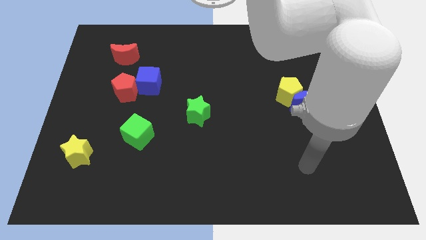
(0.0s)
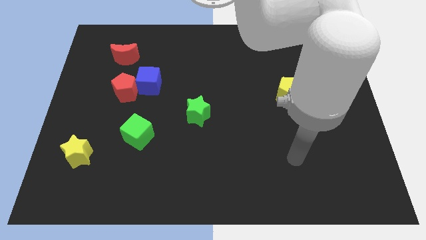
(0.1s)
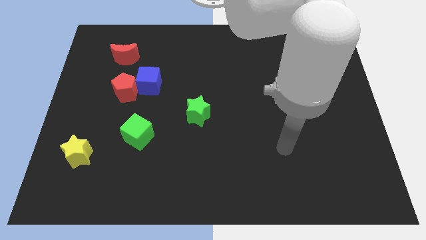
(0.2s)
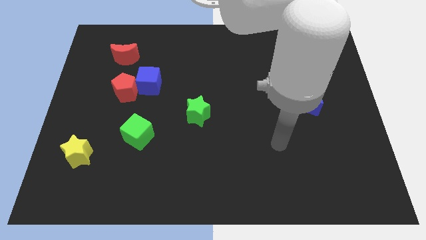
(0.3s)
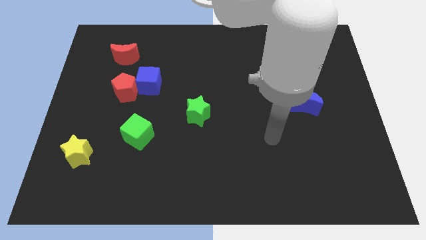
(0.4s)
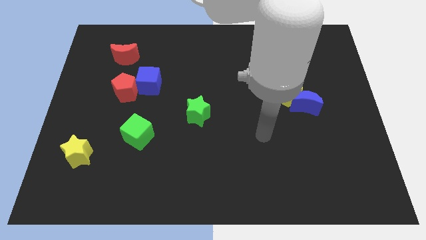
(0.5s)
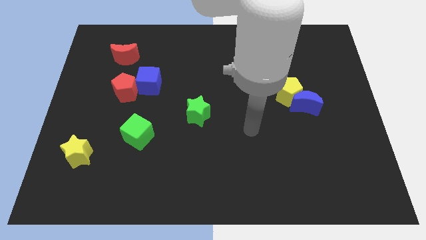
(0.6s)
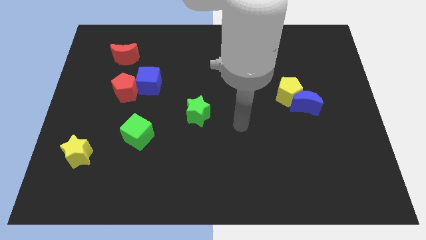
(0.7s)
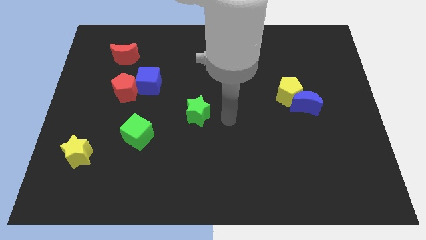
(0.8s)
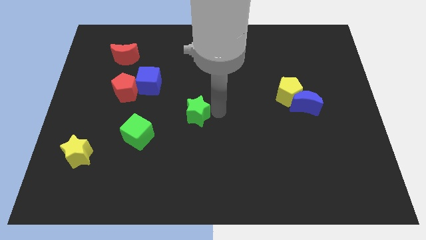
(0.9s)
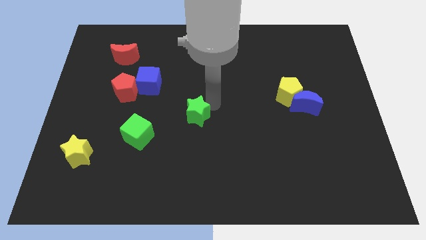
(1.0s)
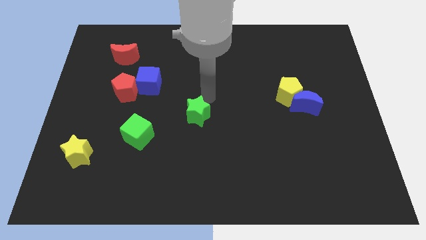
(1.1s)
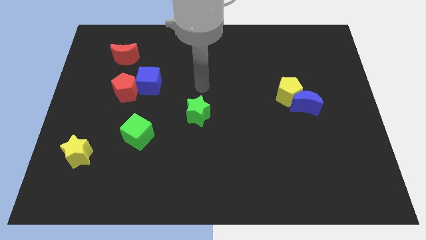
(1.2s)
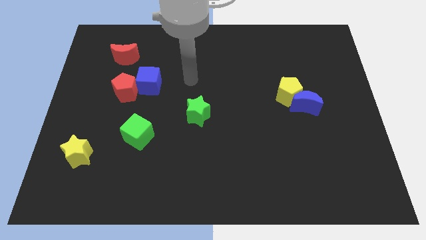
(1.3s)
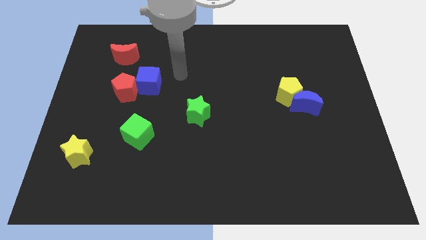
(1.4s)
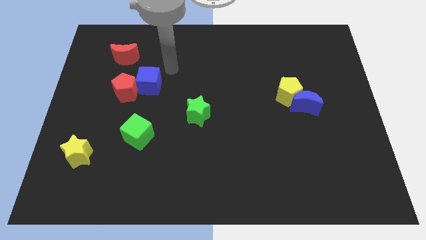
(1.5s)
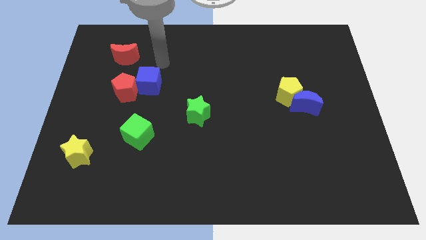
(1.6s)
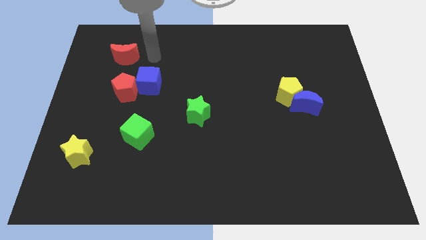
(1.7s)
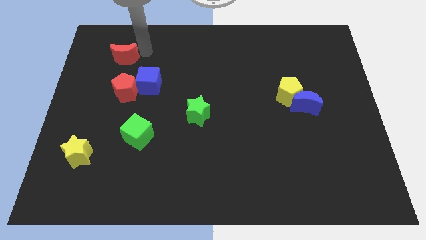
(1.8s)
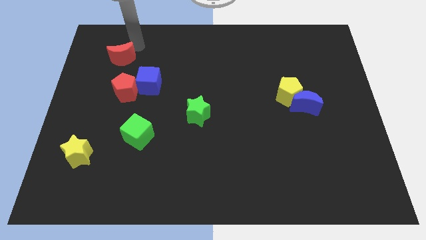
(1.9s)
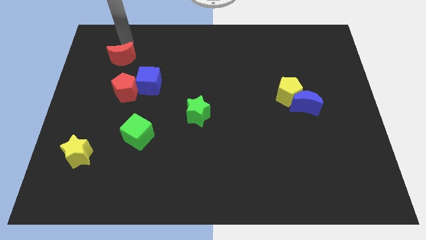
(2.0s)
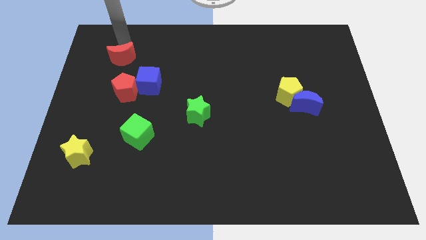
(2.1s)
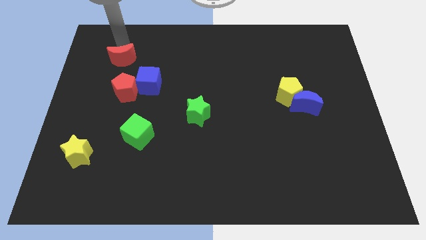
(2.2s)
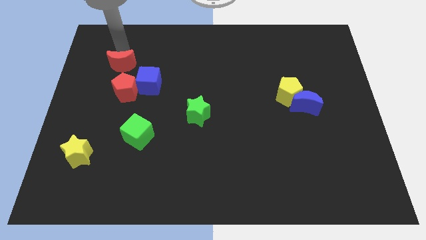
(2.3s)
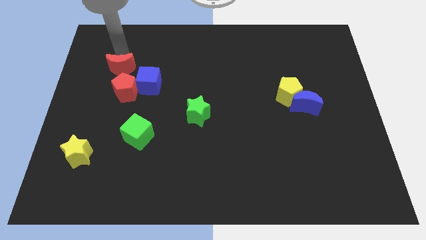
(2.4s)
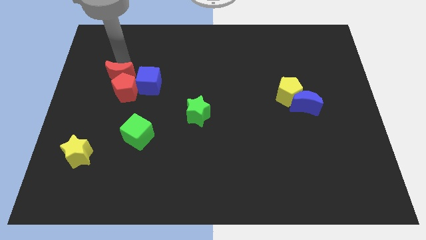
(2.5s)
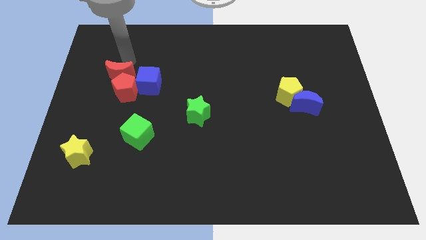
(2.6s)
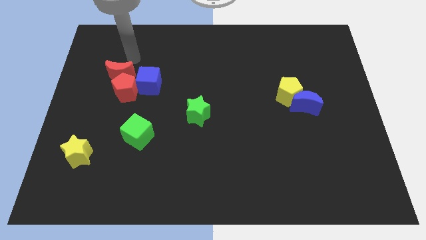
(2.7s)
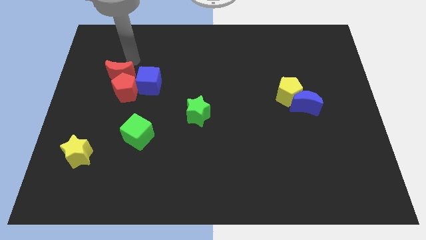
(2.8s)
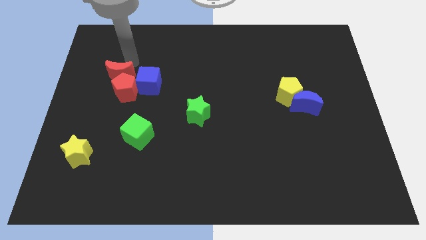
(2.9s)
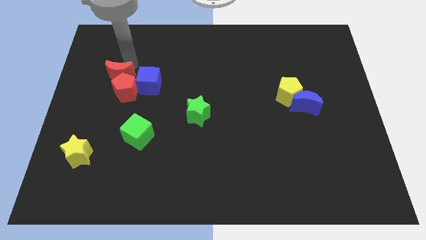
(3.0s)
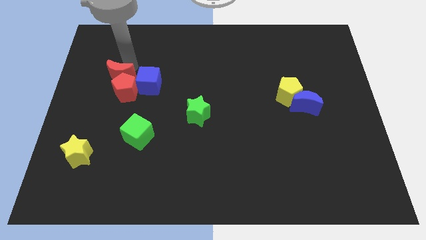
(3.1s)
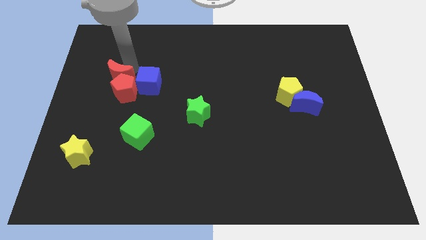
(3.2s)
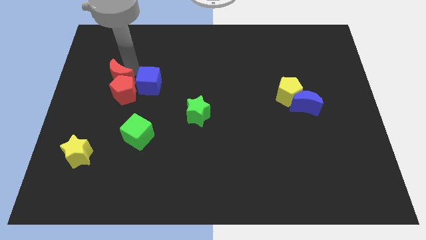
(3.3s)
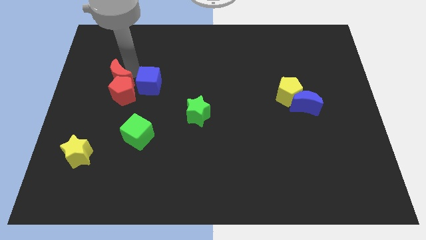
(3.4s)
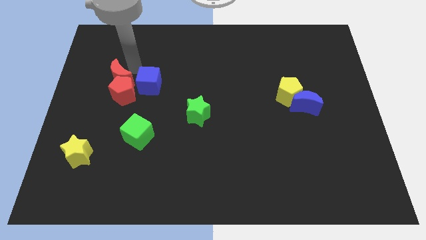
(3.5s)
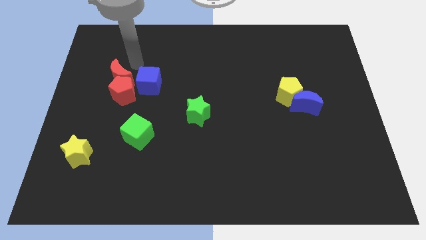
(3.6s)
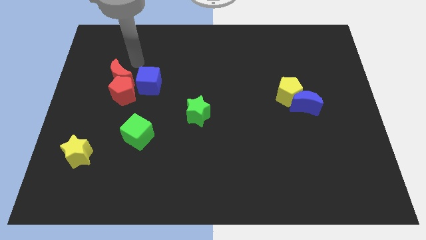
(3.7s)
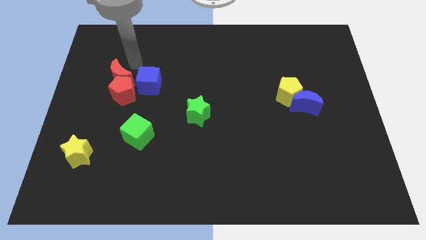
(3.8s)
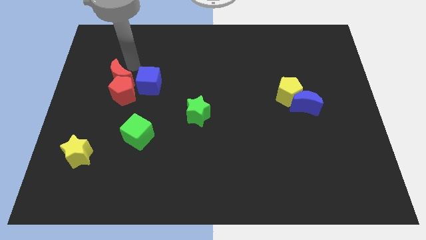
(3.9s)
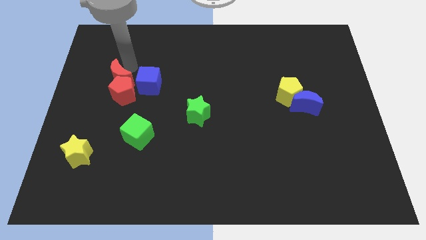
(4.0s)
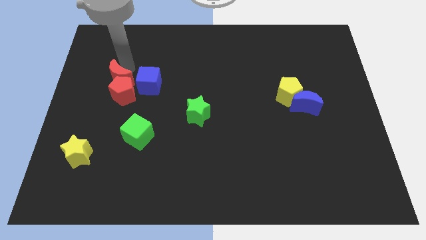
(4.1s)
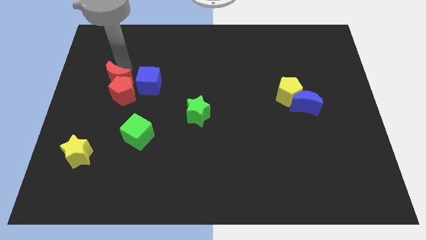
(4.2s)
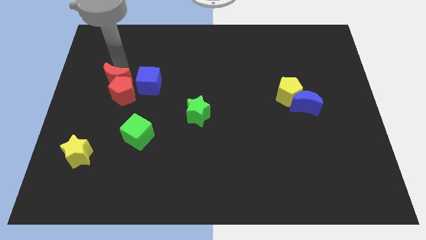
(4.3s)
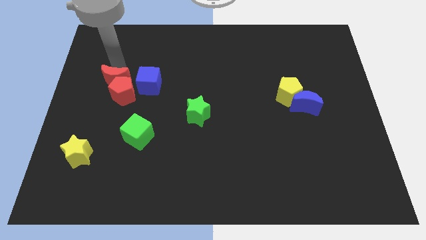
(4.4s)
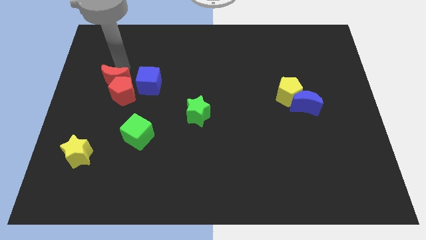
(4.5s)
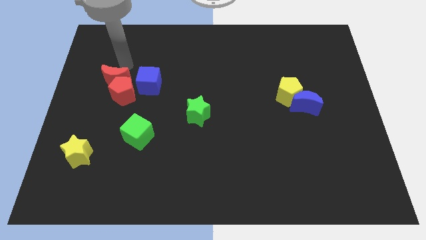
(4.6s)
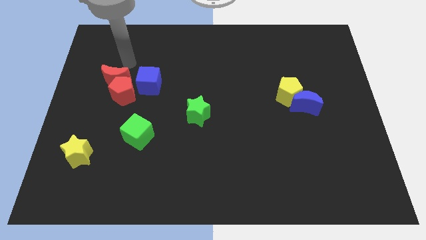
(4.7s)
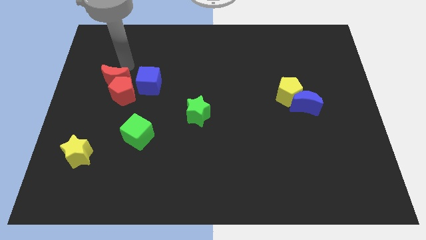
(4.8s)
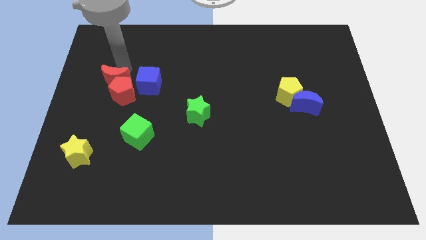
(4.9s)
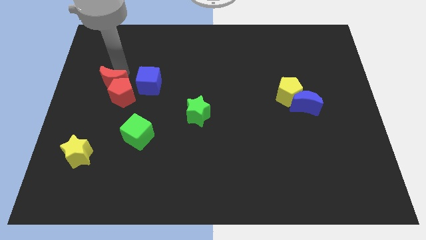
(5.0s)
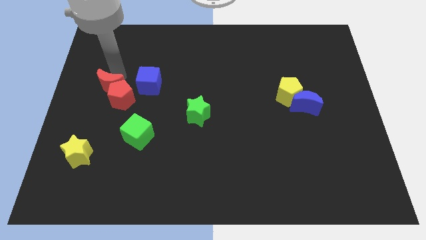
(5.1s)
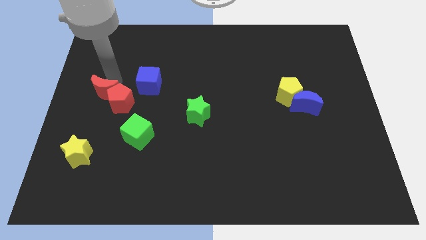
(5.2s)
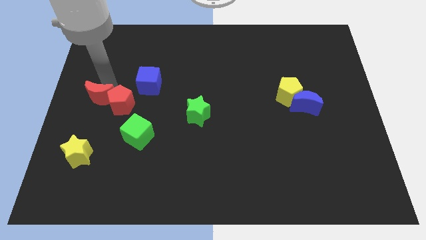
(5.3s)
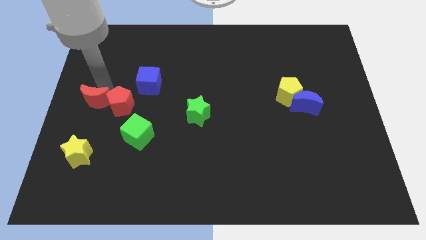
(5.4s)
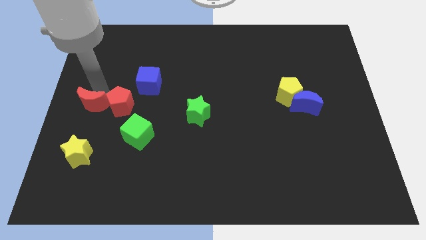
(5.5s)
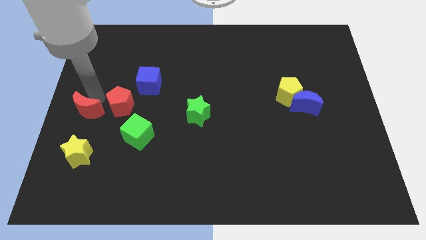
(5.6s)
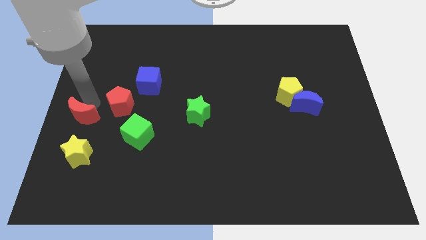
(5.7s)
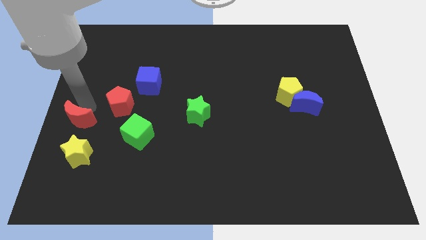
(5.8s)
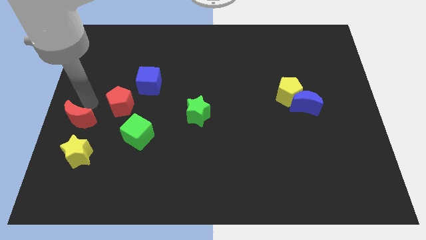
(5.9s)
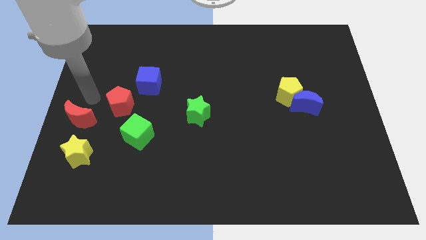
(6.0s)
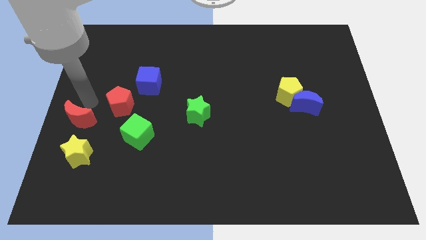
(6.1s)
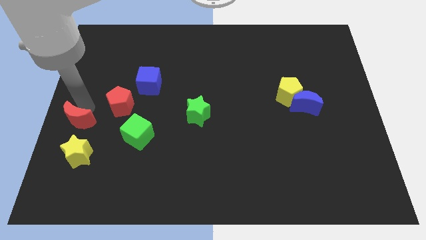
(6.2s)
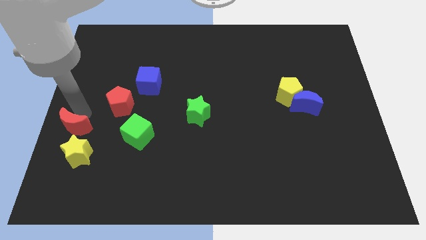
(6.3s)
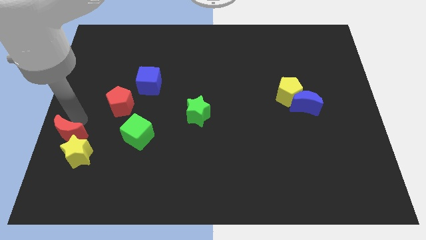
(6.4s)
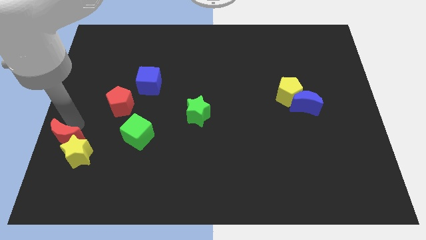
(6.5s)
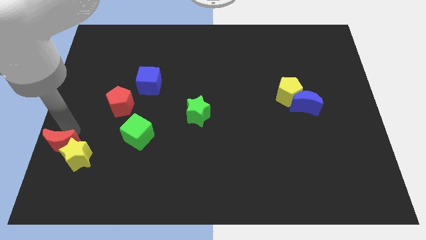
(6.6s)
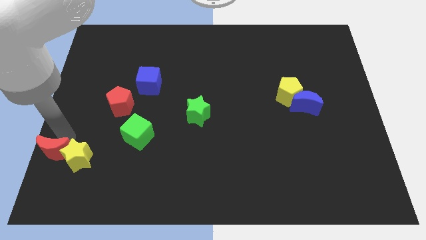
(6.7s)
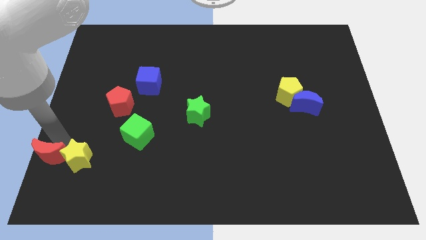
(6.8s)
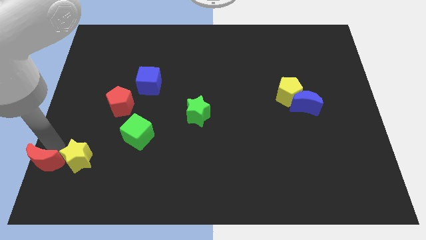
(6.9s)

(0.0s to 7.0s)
put the red moon to the bottom left
